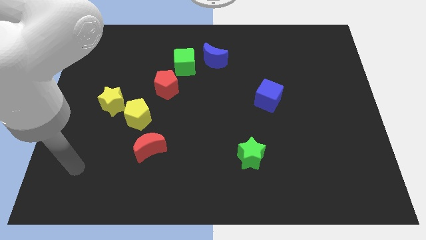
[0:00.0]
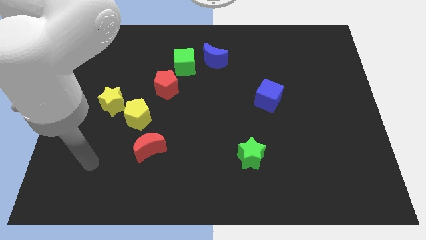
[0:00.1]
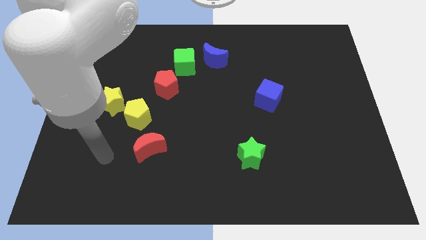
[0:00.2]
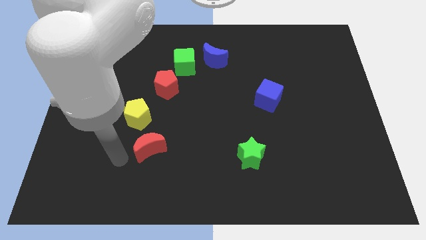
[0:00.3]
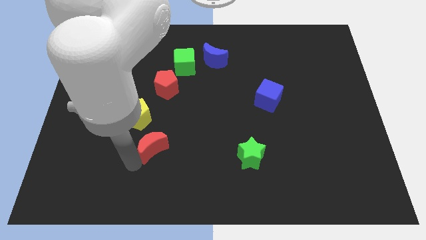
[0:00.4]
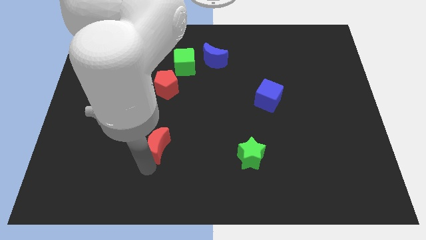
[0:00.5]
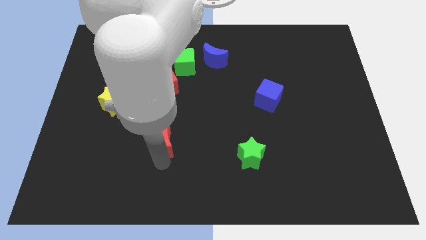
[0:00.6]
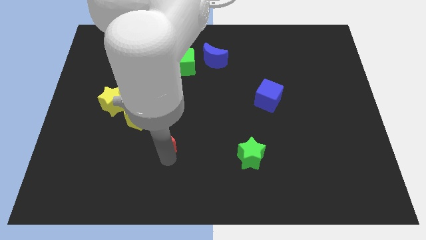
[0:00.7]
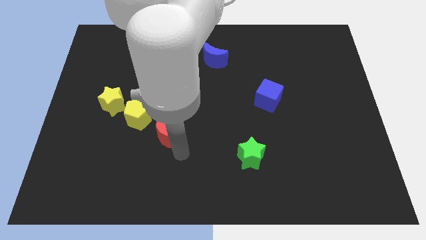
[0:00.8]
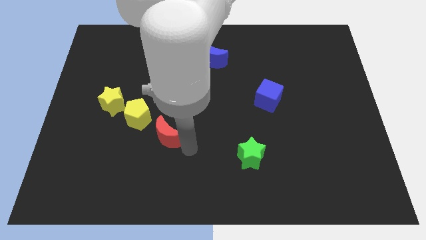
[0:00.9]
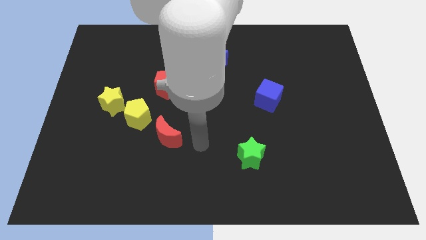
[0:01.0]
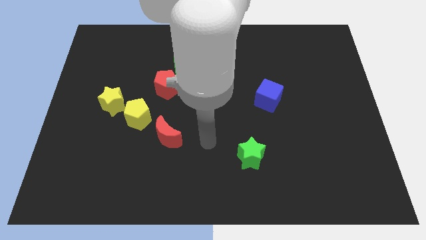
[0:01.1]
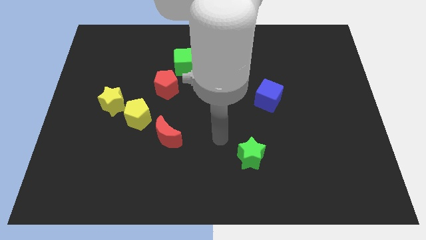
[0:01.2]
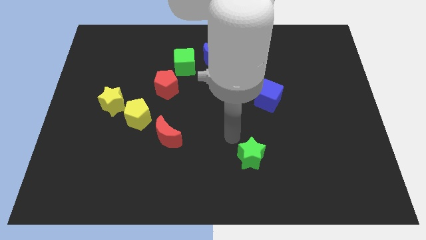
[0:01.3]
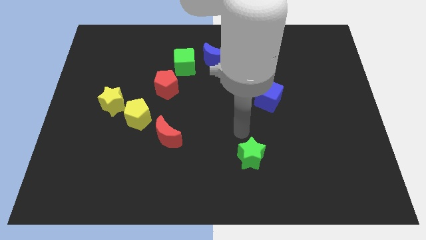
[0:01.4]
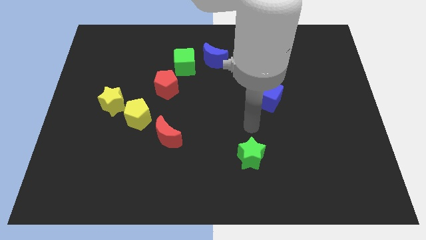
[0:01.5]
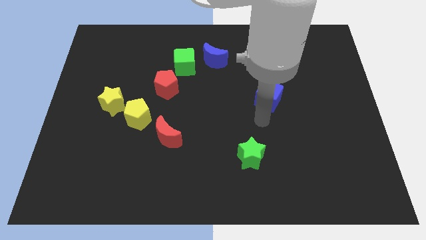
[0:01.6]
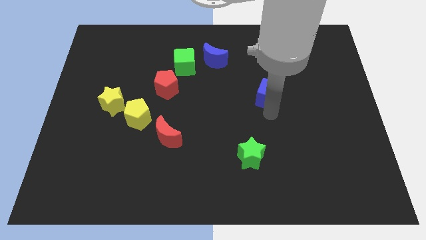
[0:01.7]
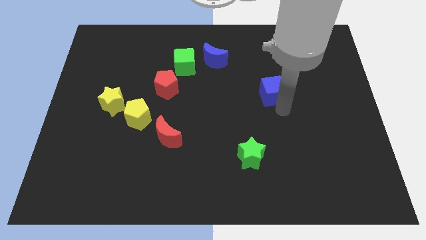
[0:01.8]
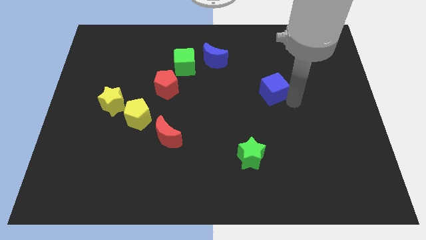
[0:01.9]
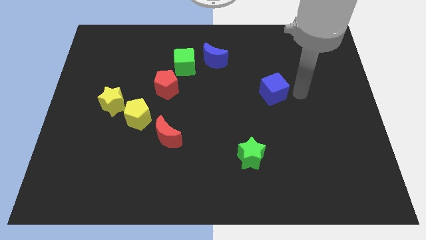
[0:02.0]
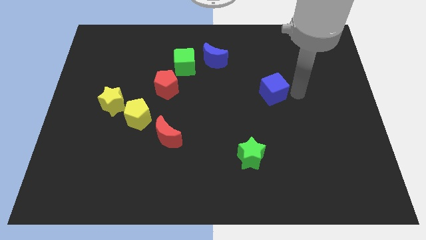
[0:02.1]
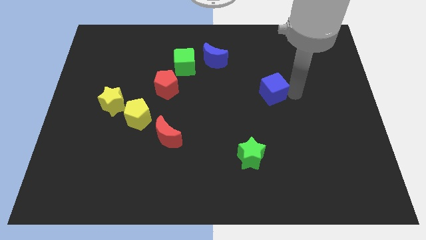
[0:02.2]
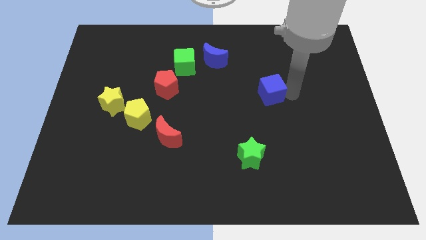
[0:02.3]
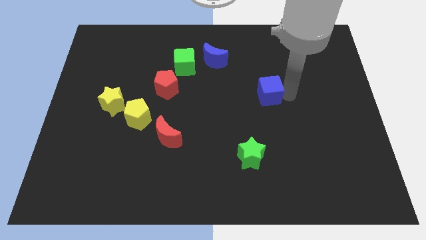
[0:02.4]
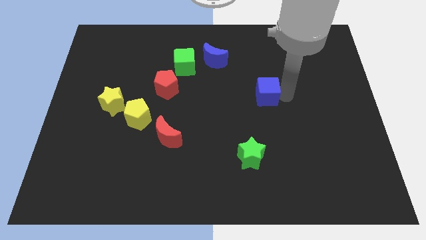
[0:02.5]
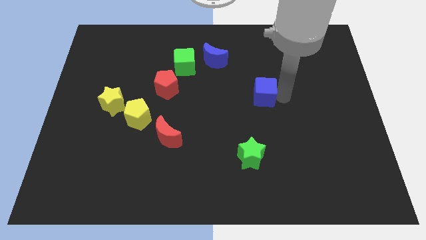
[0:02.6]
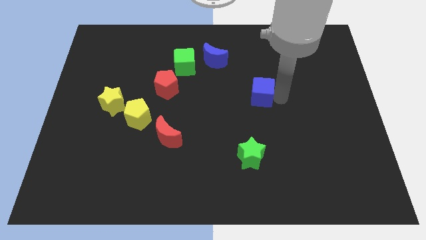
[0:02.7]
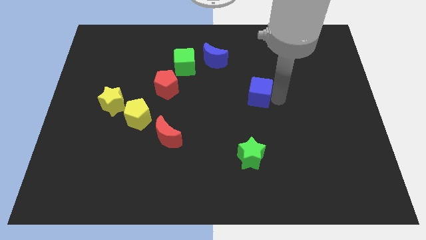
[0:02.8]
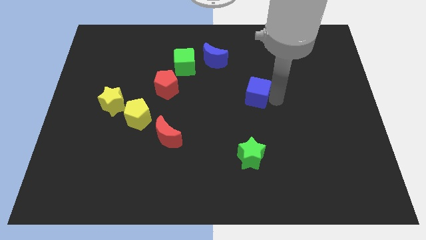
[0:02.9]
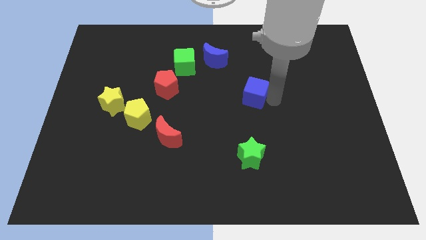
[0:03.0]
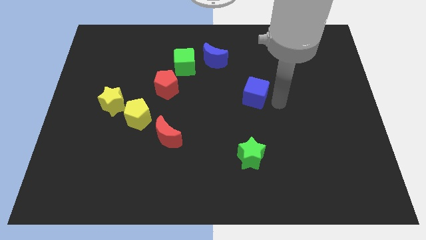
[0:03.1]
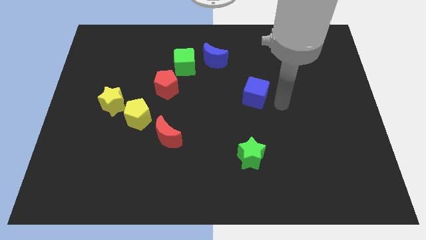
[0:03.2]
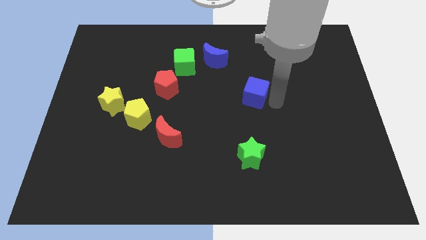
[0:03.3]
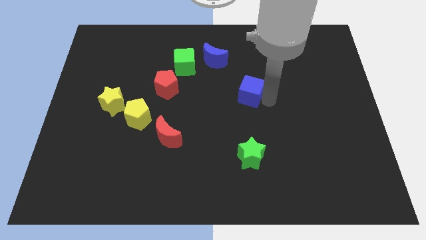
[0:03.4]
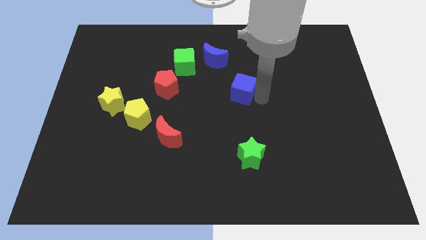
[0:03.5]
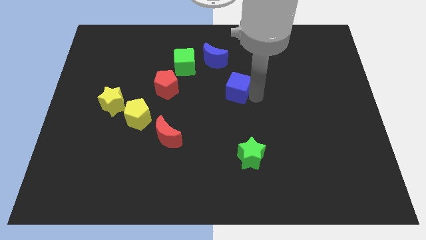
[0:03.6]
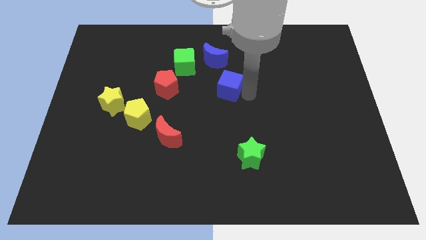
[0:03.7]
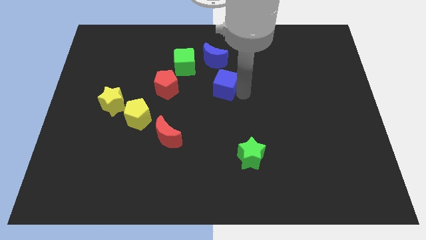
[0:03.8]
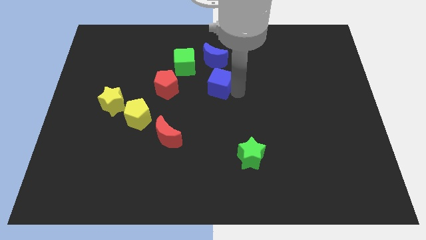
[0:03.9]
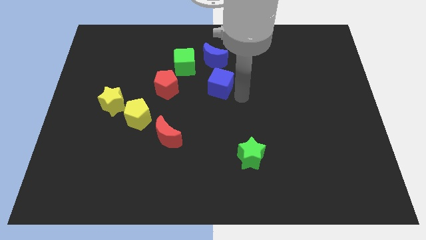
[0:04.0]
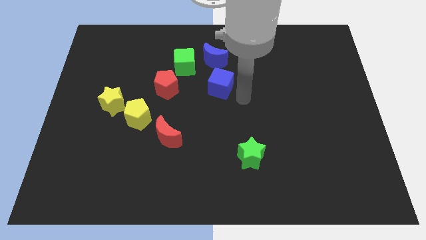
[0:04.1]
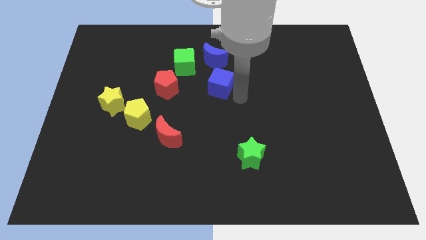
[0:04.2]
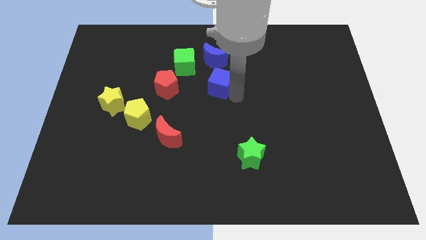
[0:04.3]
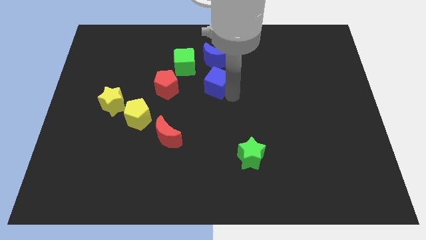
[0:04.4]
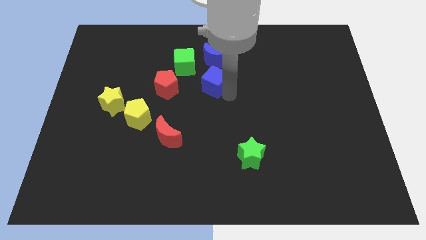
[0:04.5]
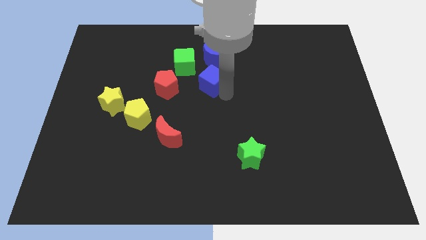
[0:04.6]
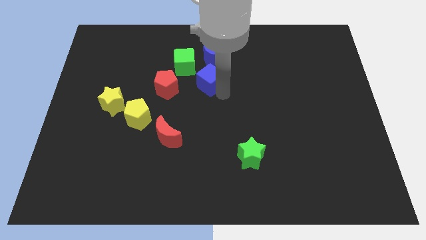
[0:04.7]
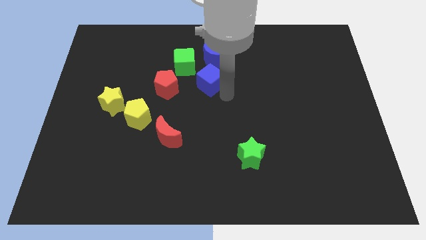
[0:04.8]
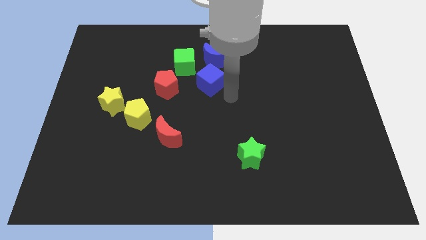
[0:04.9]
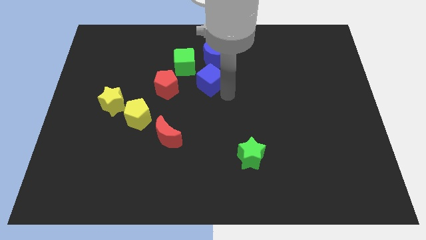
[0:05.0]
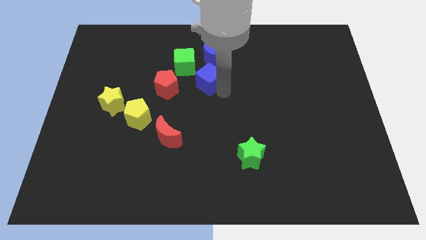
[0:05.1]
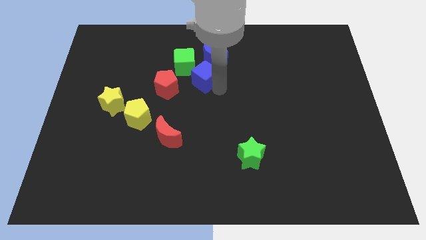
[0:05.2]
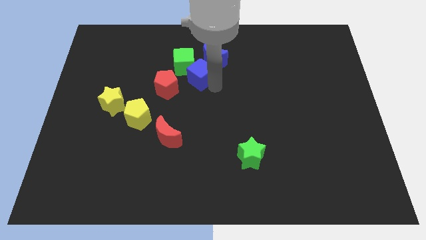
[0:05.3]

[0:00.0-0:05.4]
push the blue cube next to the green cube

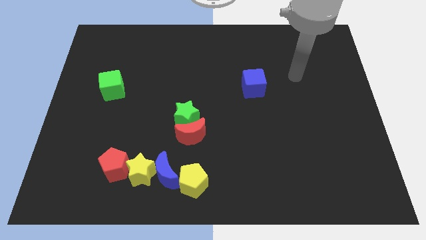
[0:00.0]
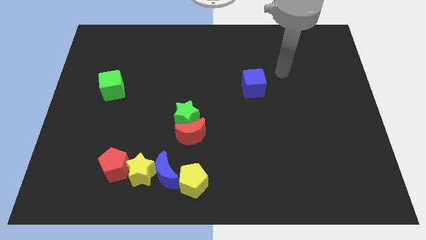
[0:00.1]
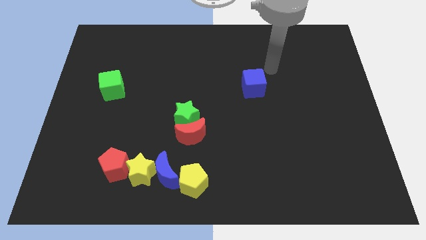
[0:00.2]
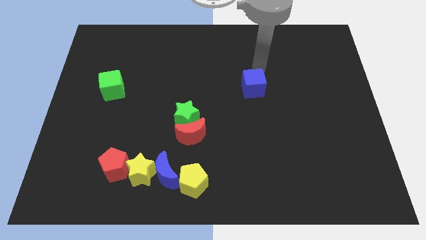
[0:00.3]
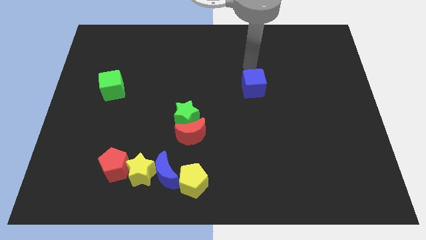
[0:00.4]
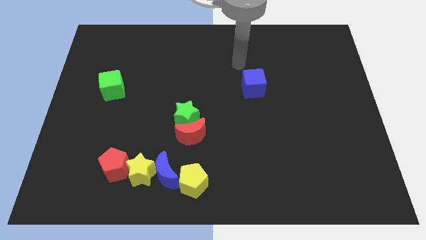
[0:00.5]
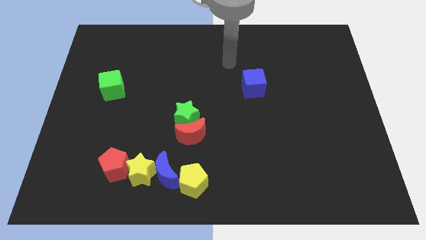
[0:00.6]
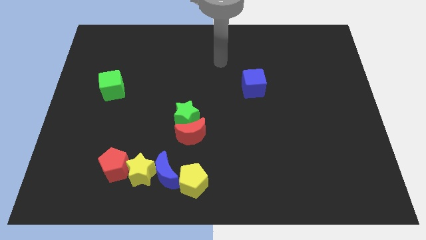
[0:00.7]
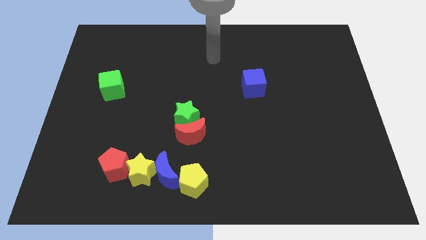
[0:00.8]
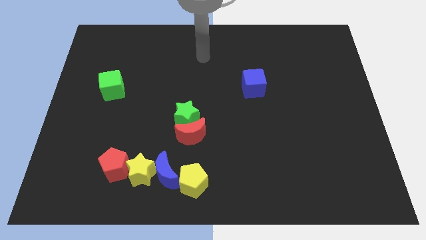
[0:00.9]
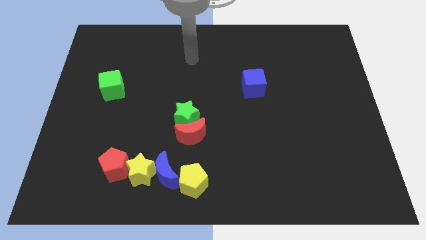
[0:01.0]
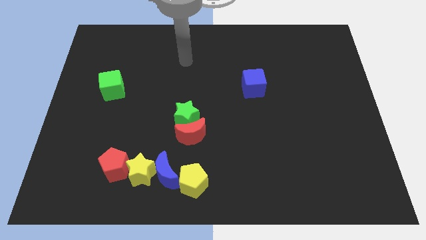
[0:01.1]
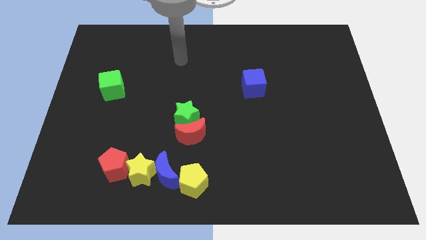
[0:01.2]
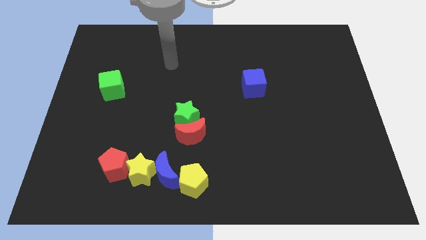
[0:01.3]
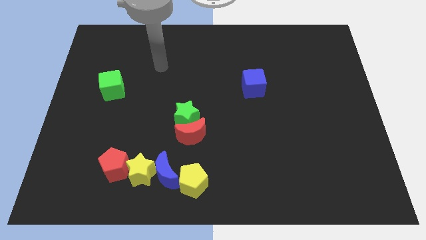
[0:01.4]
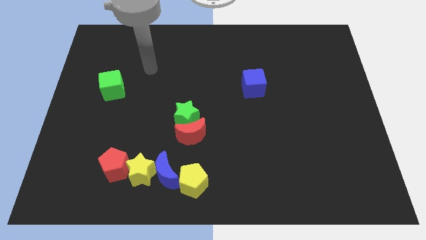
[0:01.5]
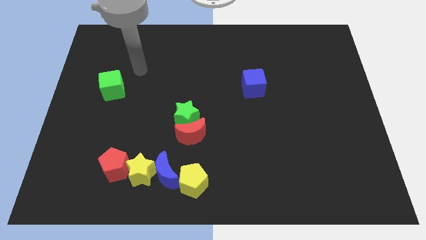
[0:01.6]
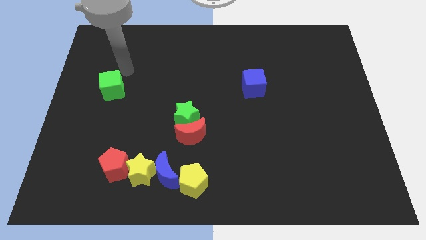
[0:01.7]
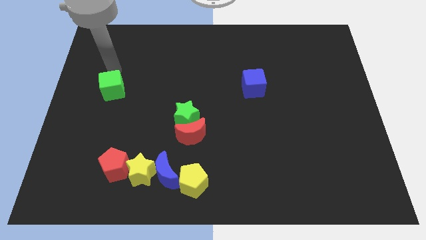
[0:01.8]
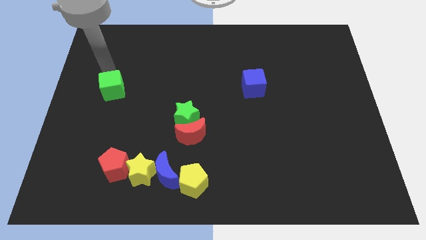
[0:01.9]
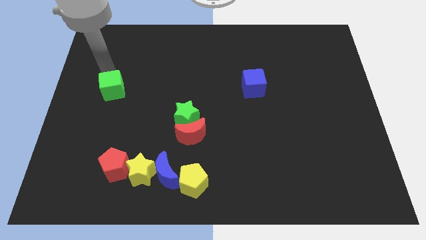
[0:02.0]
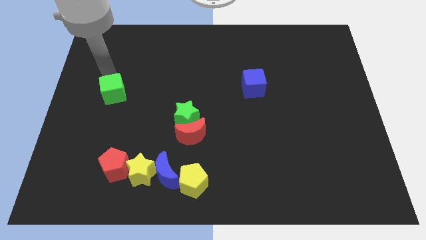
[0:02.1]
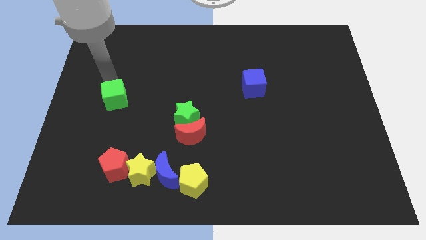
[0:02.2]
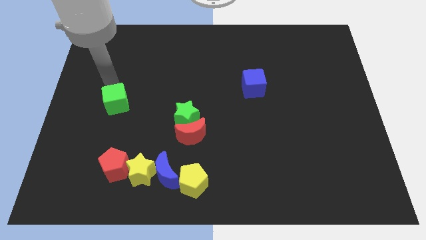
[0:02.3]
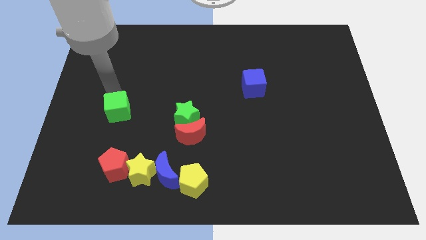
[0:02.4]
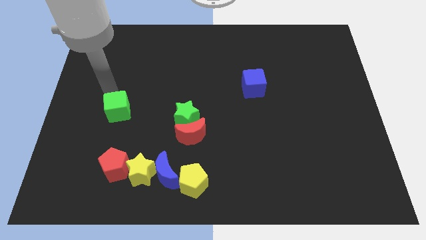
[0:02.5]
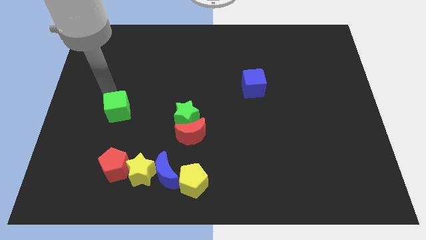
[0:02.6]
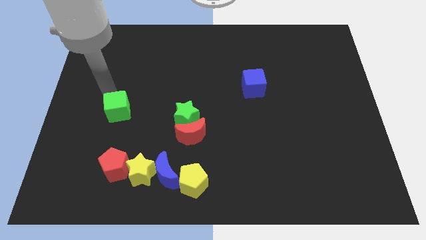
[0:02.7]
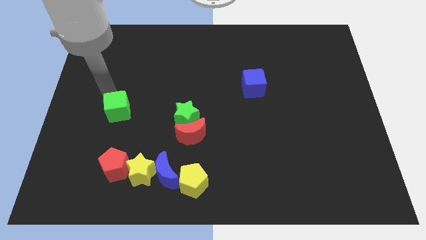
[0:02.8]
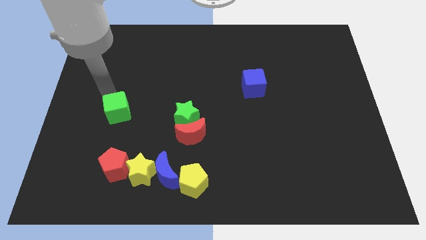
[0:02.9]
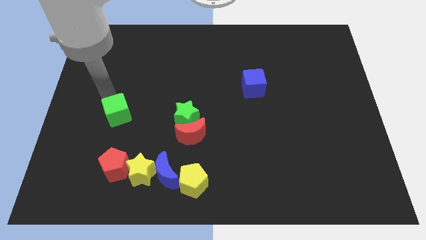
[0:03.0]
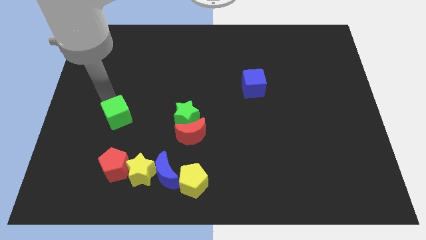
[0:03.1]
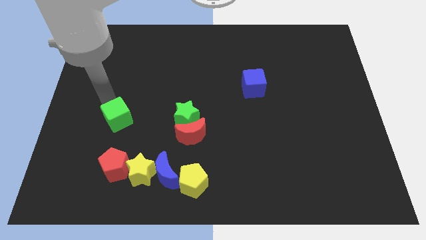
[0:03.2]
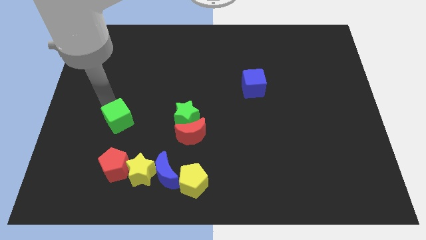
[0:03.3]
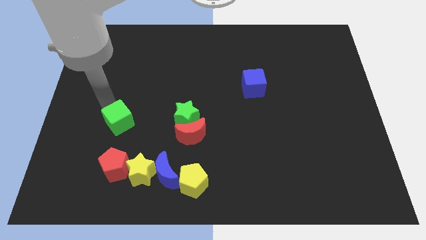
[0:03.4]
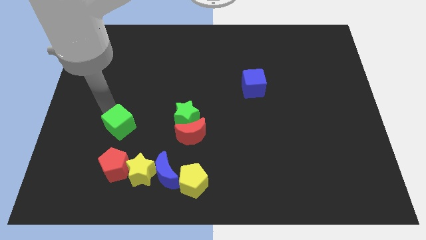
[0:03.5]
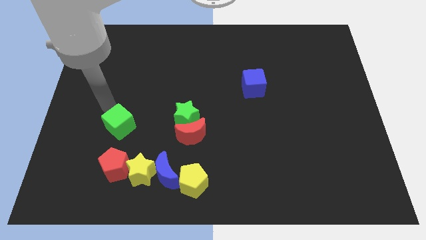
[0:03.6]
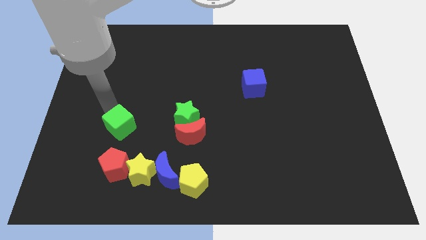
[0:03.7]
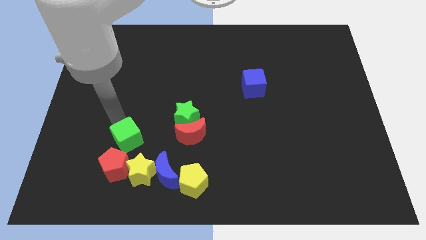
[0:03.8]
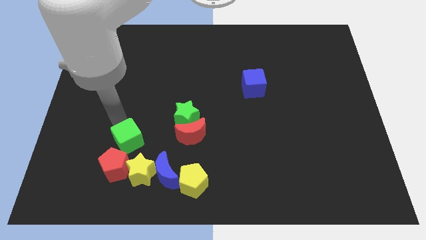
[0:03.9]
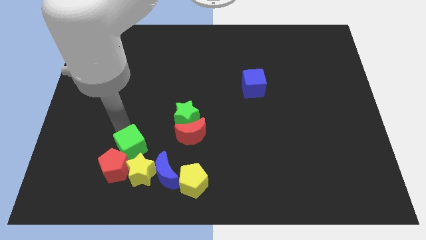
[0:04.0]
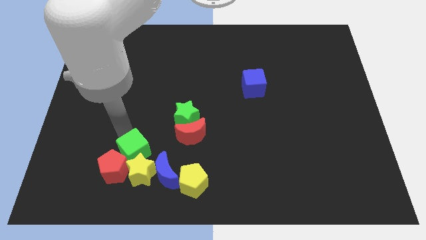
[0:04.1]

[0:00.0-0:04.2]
move the green cube towards the yellow star
